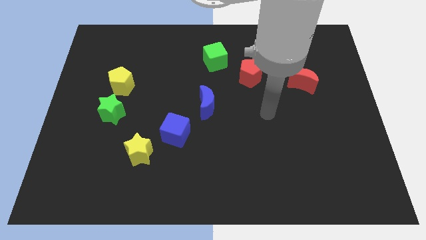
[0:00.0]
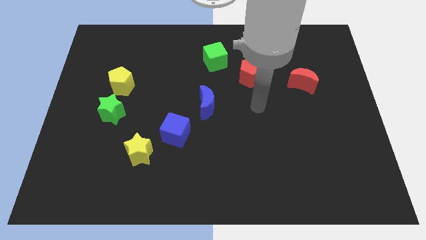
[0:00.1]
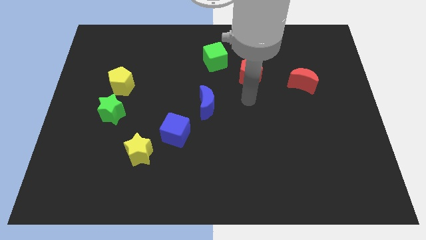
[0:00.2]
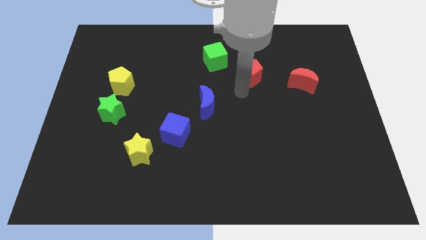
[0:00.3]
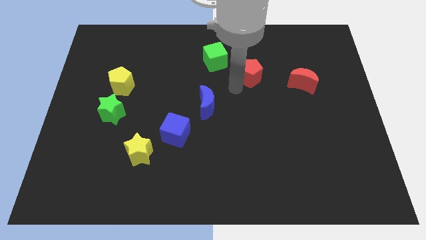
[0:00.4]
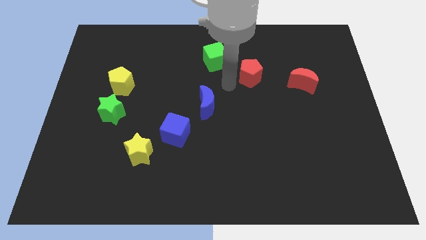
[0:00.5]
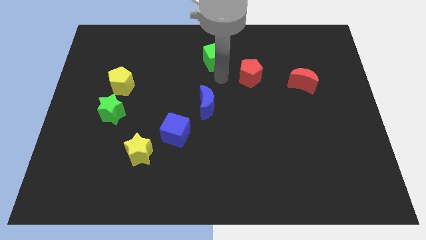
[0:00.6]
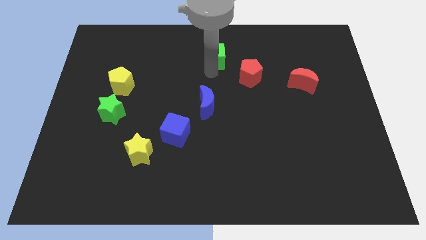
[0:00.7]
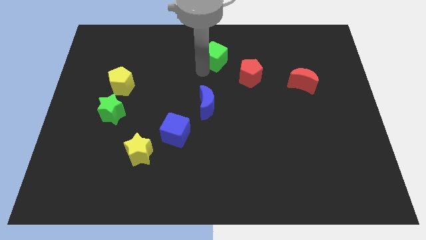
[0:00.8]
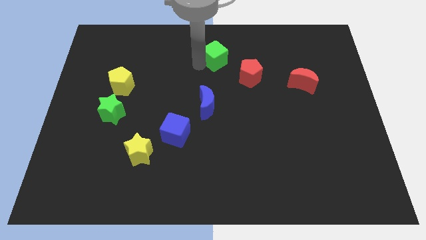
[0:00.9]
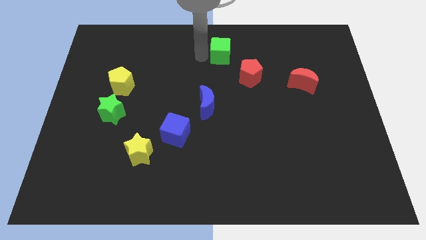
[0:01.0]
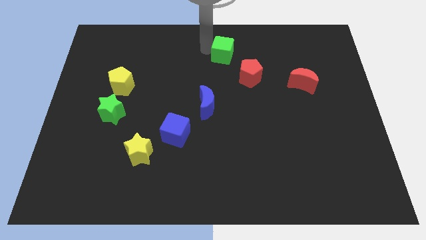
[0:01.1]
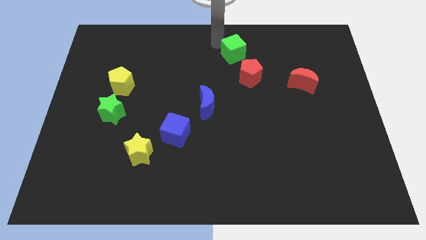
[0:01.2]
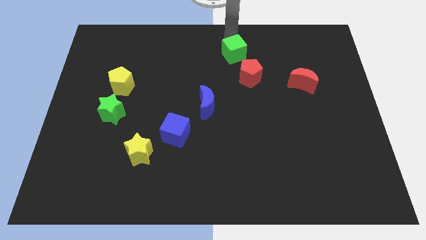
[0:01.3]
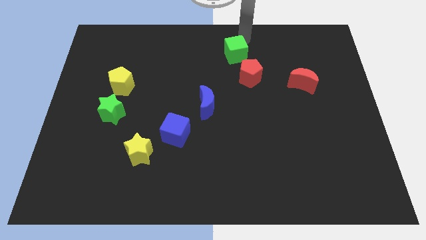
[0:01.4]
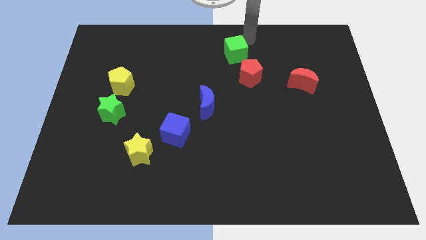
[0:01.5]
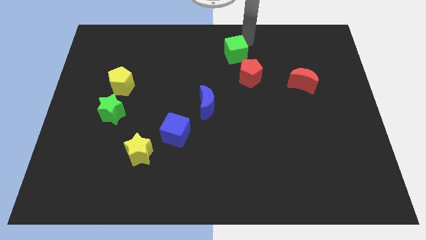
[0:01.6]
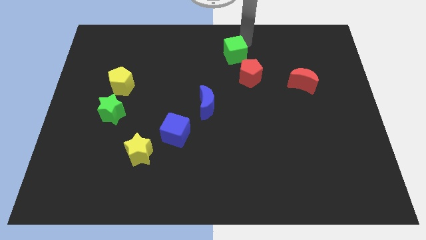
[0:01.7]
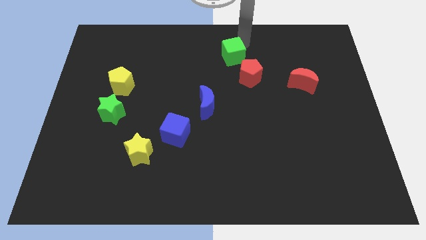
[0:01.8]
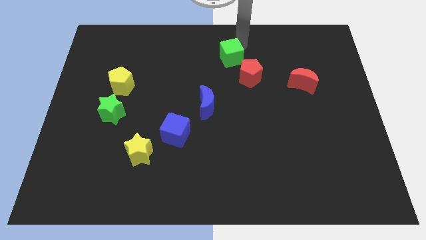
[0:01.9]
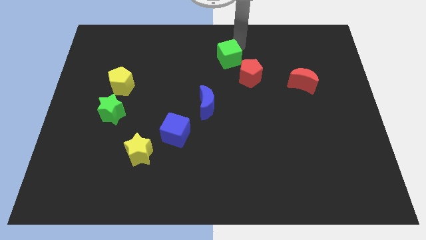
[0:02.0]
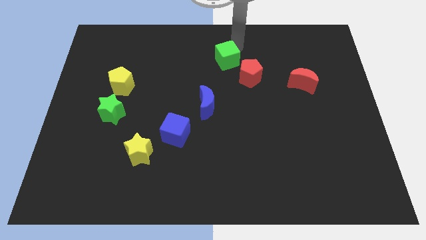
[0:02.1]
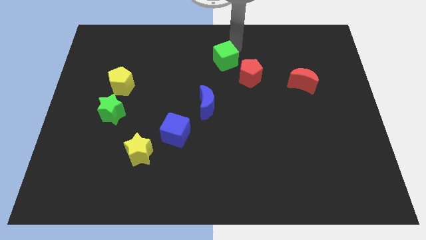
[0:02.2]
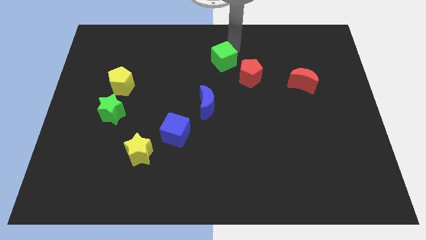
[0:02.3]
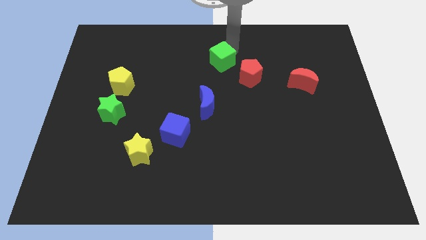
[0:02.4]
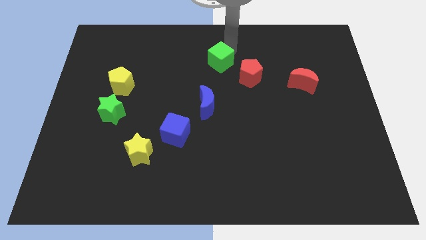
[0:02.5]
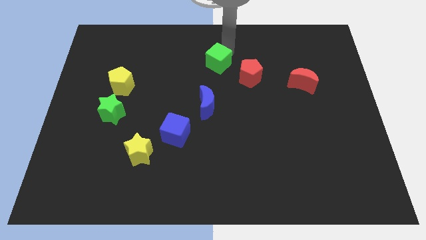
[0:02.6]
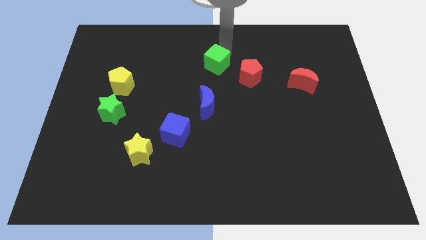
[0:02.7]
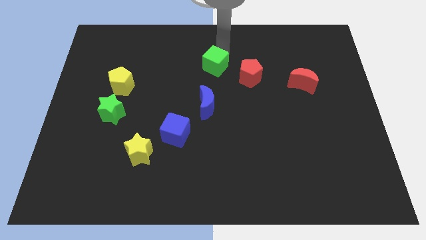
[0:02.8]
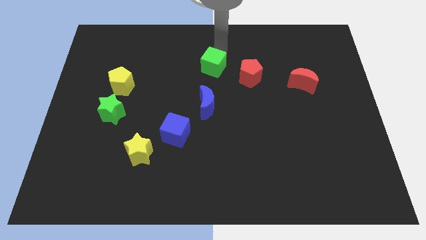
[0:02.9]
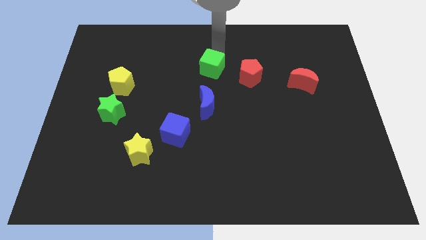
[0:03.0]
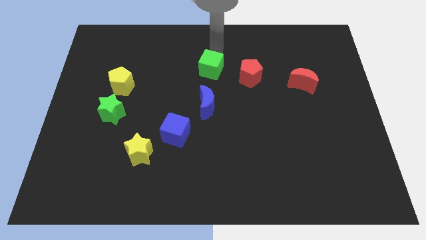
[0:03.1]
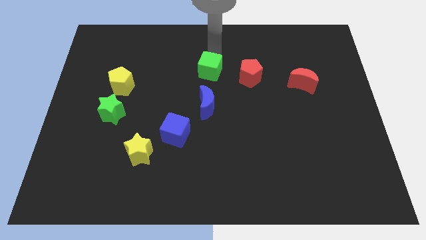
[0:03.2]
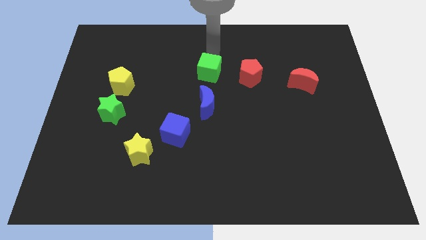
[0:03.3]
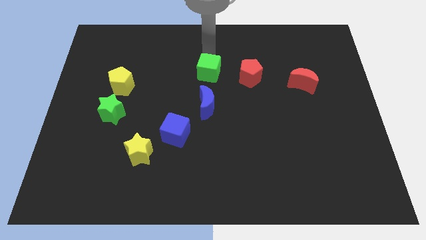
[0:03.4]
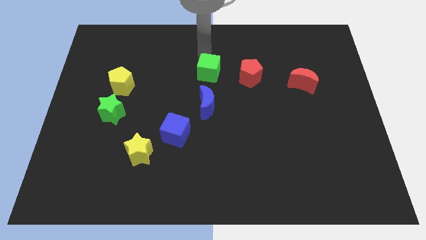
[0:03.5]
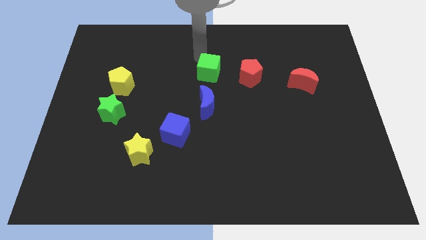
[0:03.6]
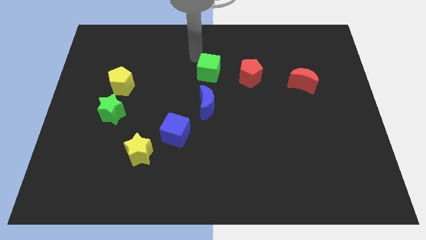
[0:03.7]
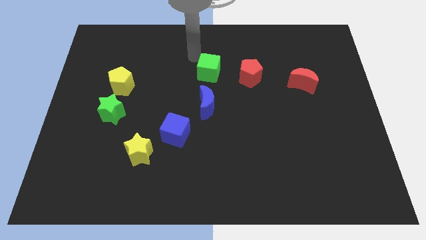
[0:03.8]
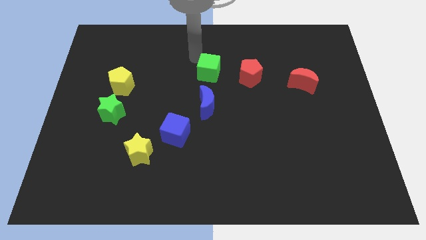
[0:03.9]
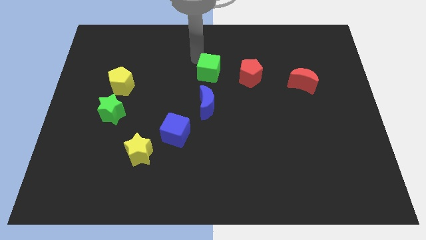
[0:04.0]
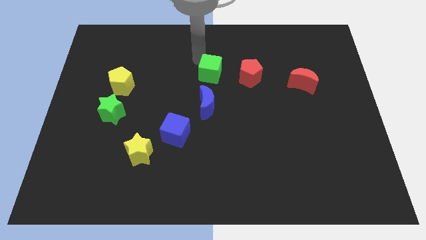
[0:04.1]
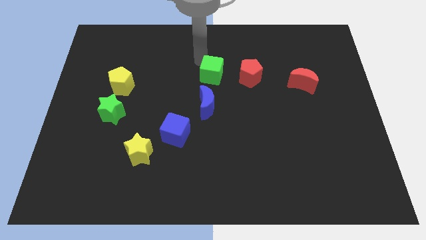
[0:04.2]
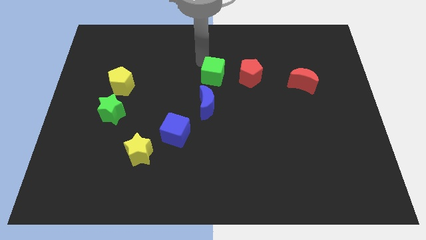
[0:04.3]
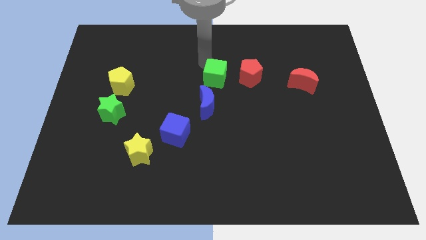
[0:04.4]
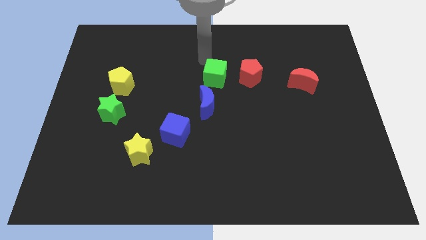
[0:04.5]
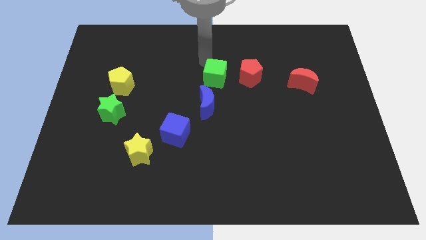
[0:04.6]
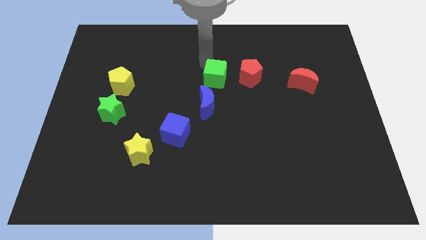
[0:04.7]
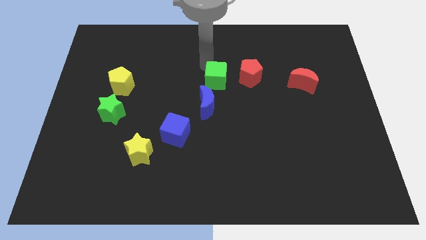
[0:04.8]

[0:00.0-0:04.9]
slightly push the green cube downwards
